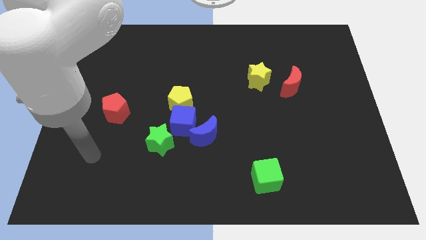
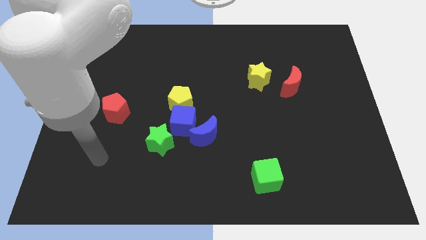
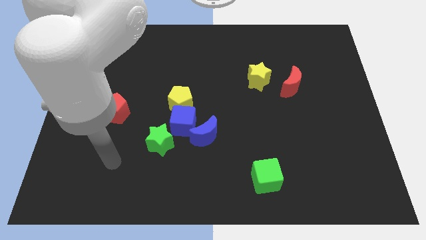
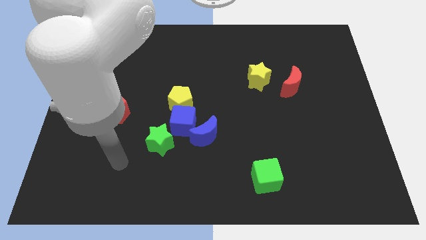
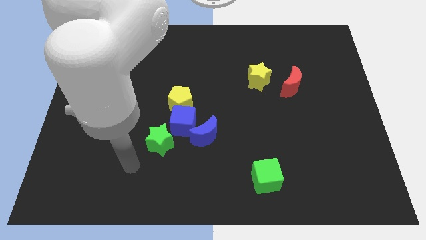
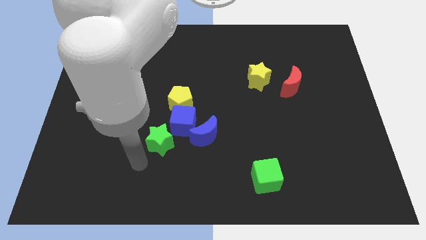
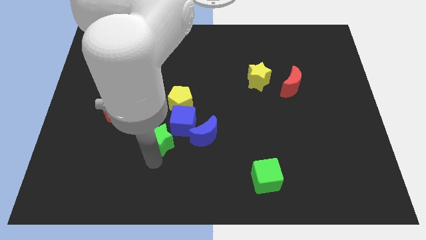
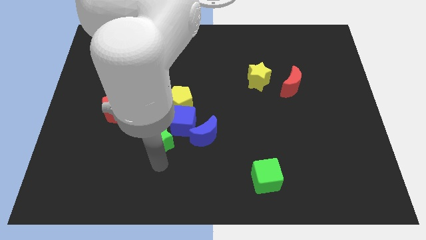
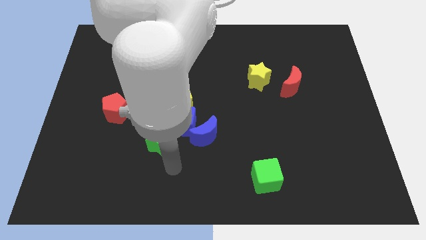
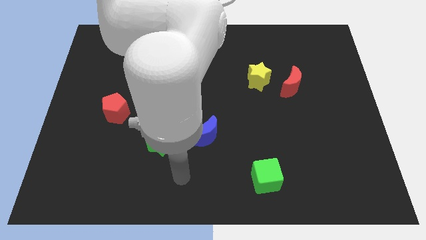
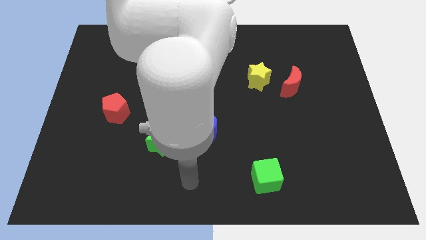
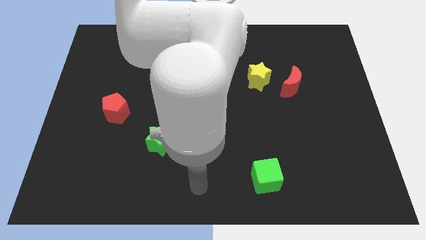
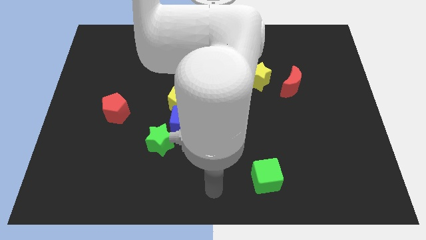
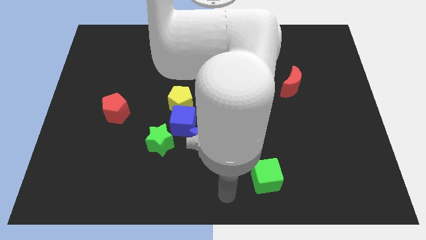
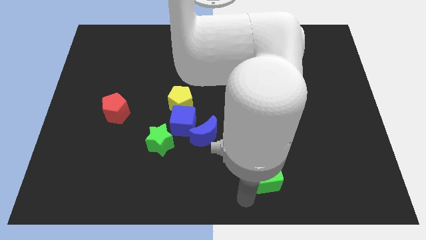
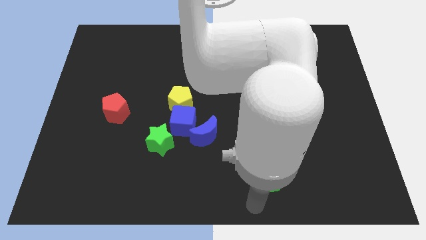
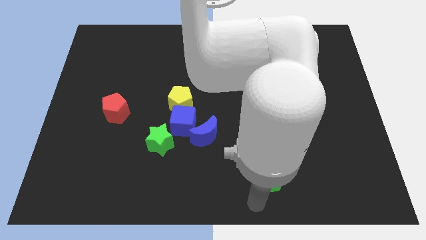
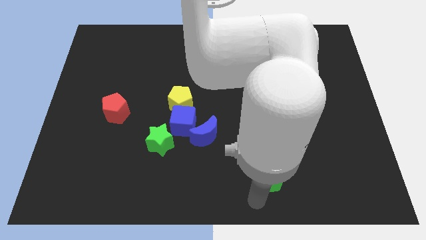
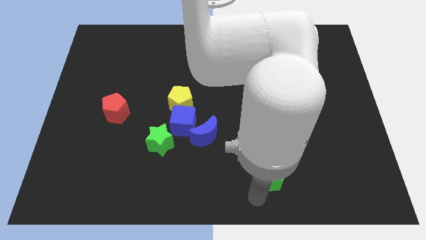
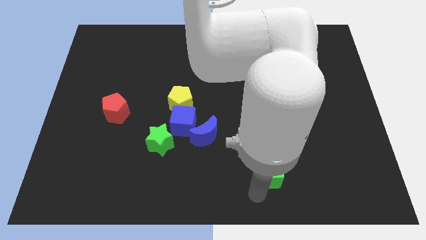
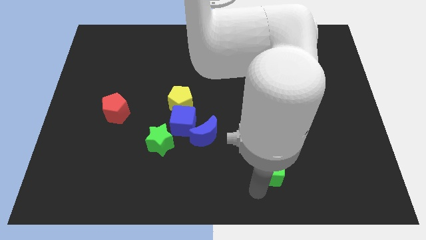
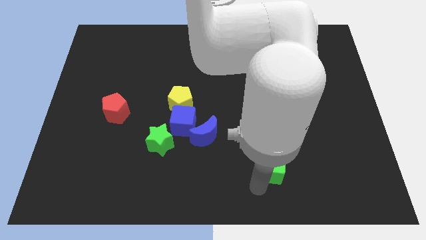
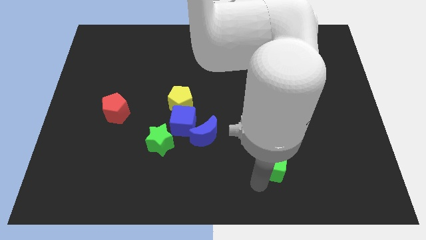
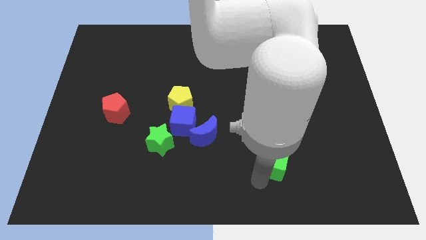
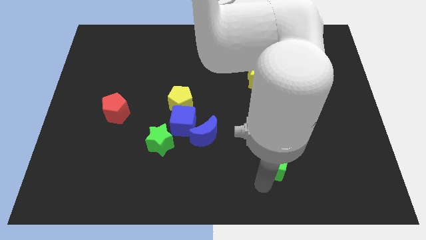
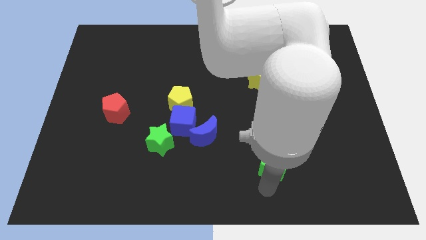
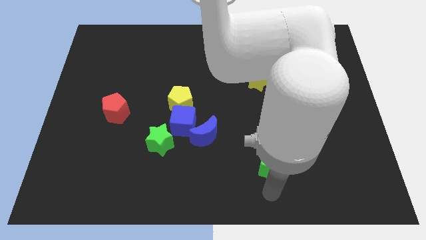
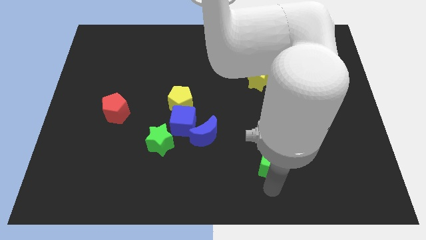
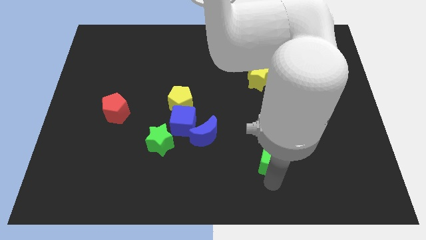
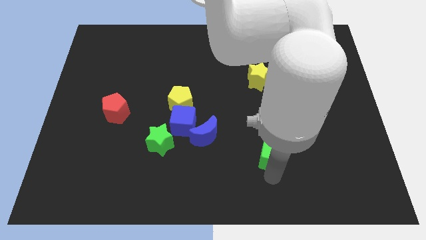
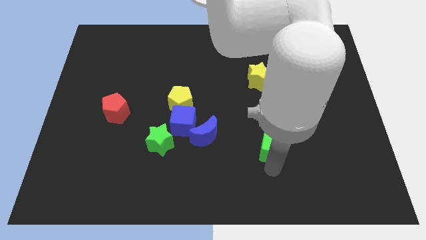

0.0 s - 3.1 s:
move the green cube a little up

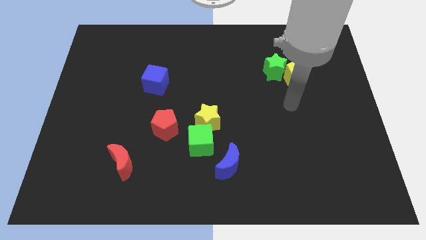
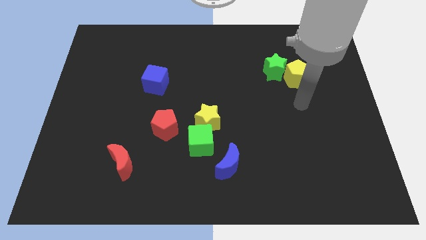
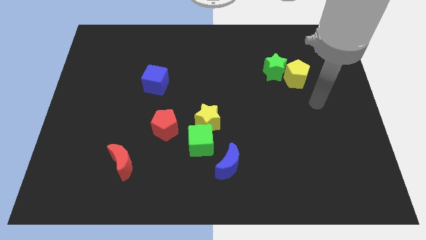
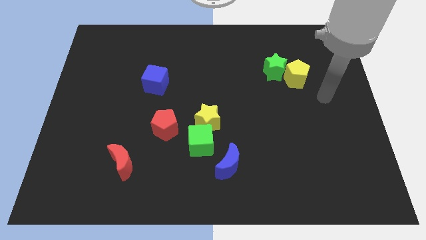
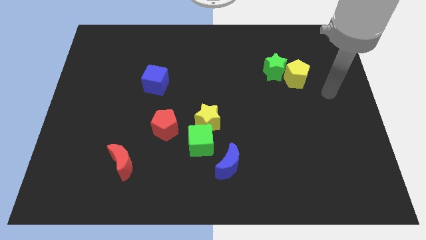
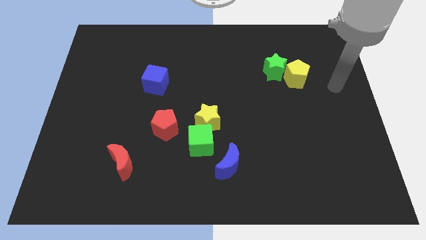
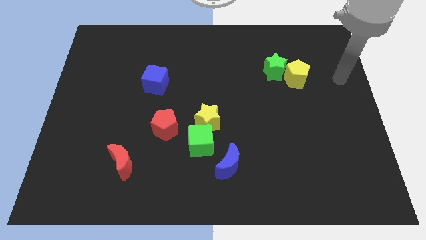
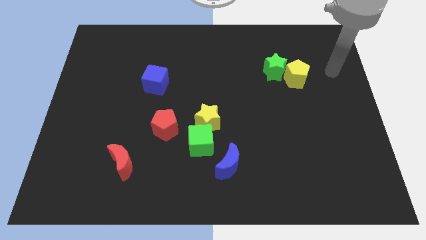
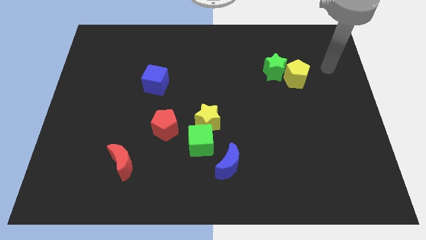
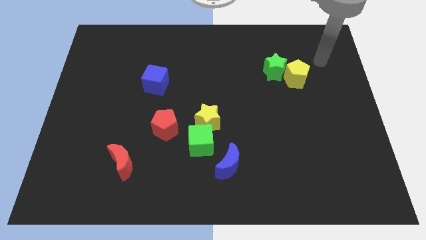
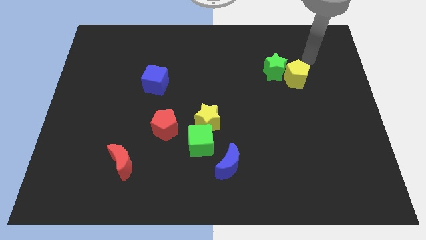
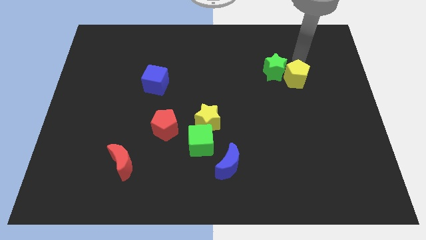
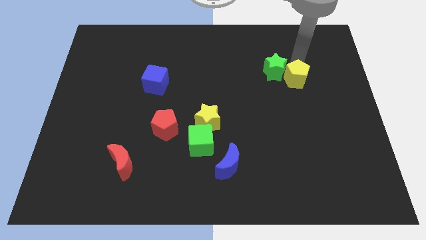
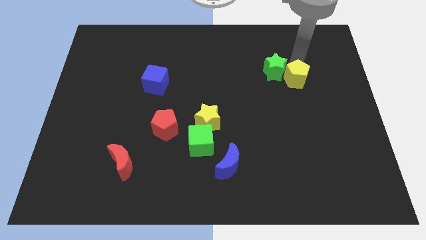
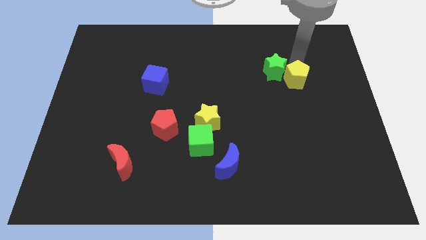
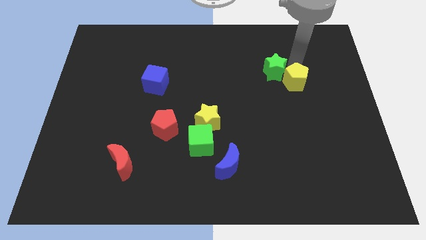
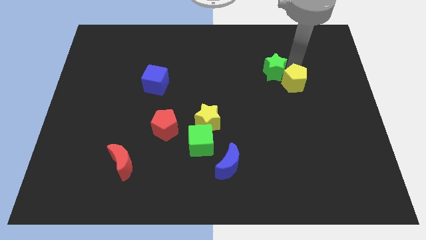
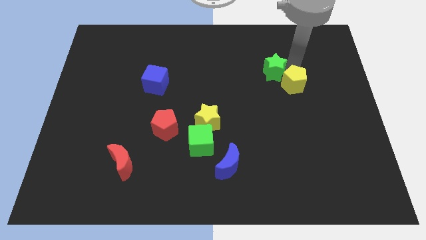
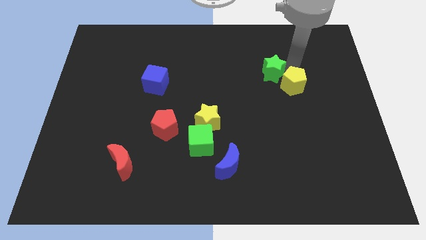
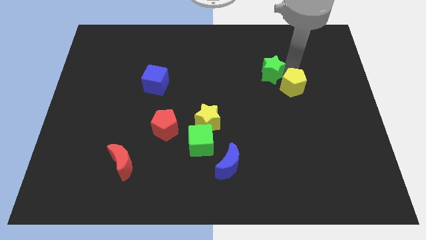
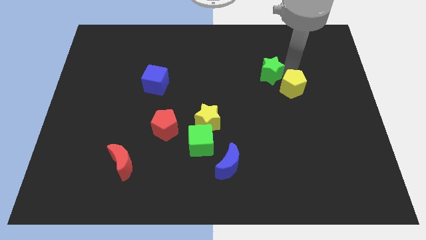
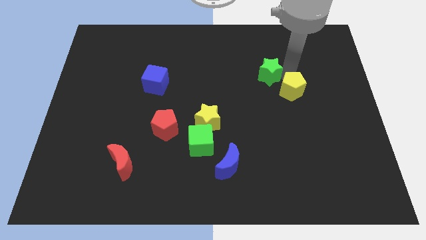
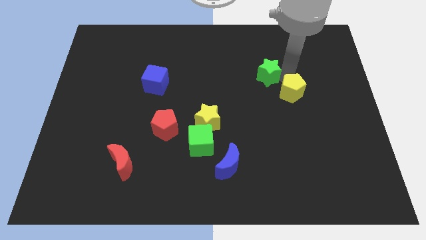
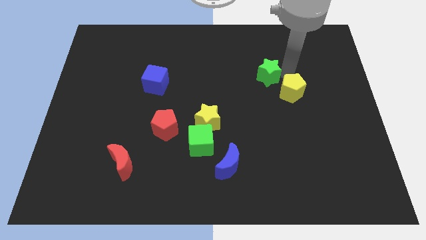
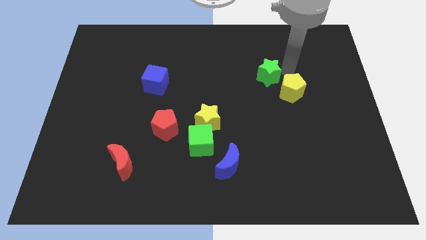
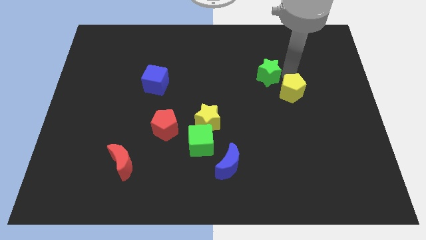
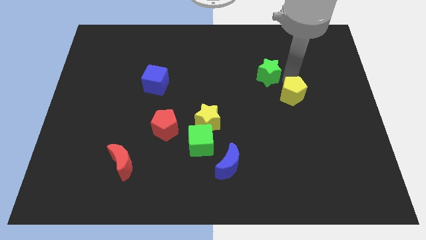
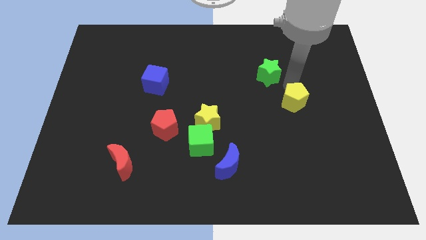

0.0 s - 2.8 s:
push the yellow pentagon downwards a bit

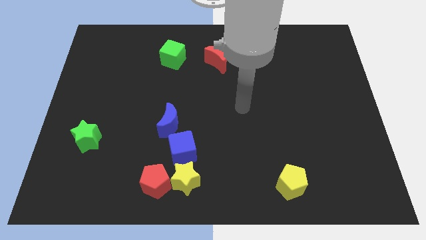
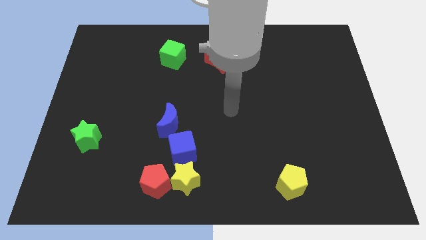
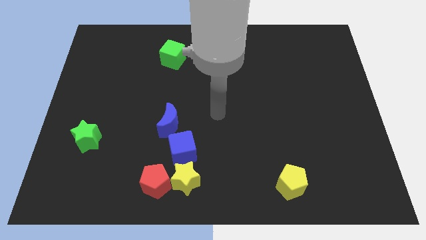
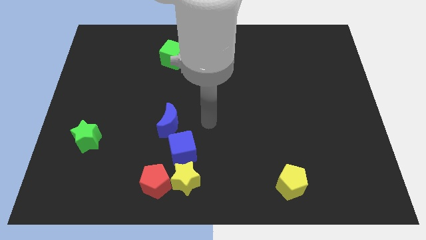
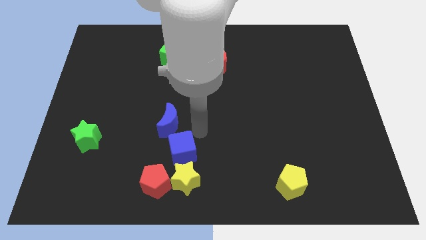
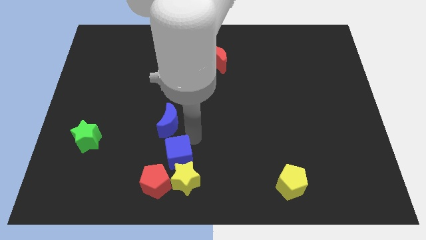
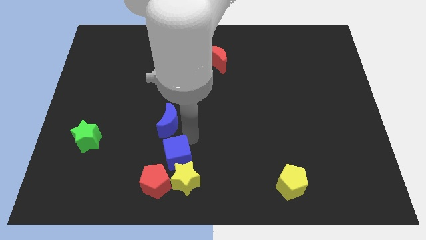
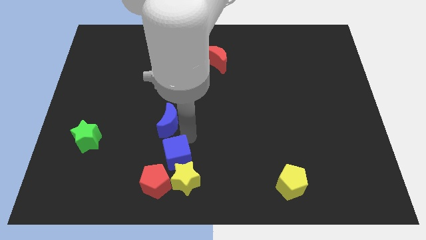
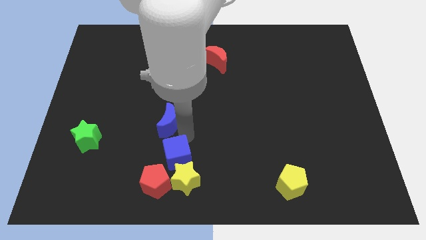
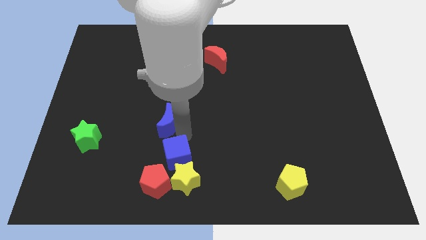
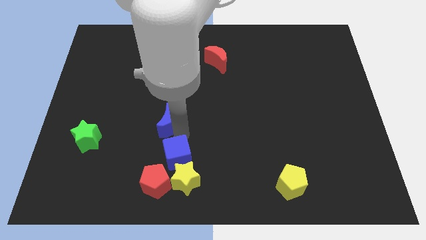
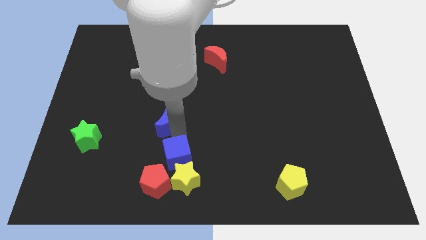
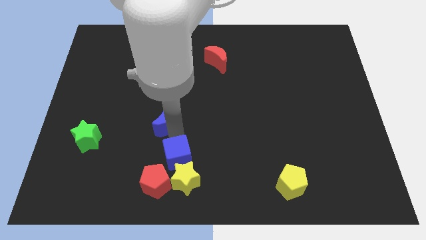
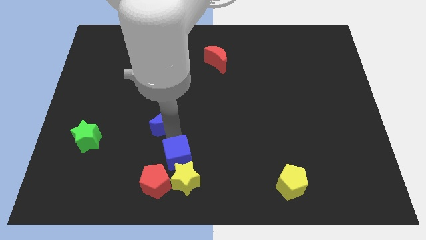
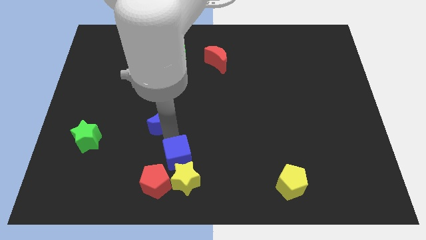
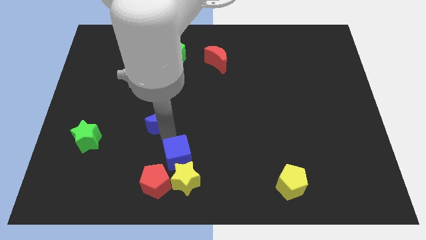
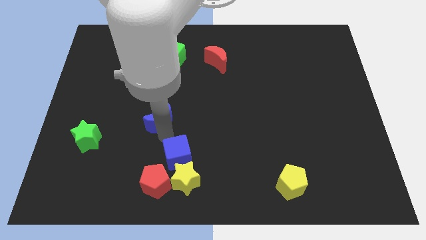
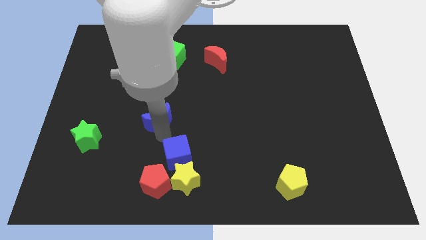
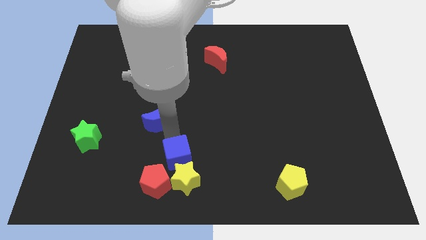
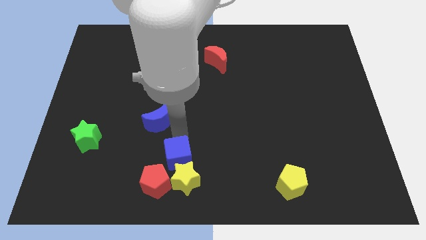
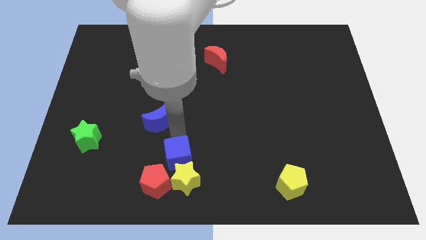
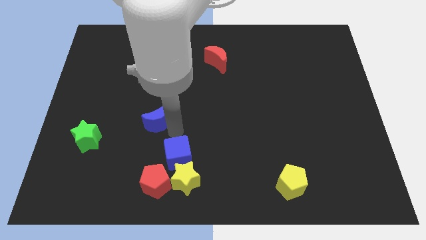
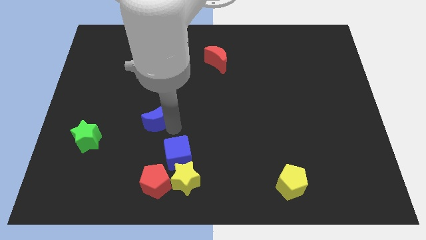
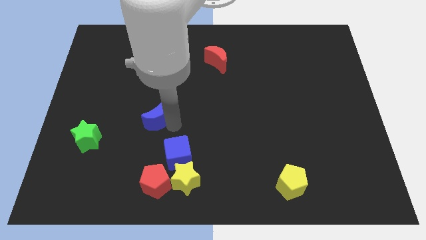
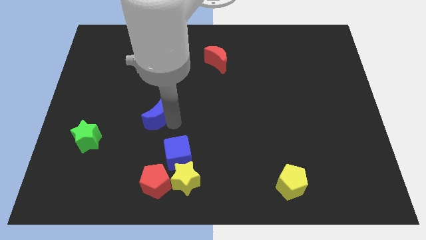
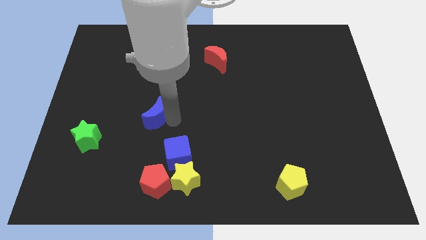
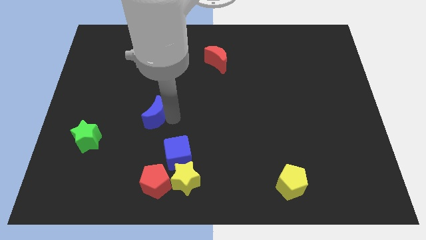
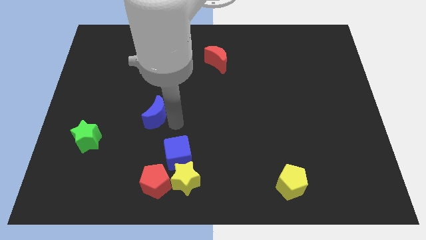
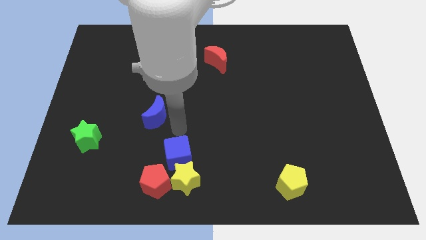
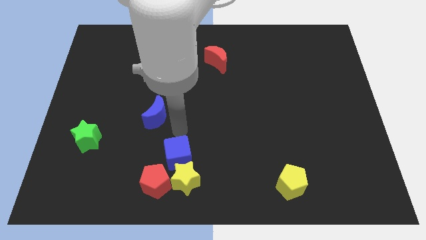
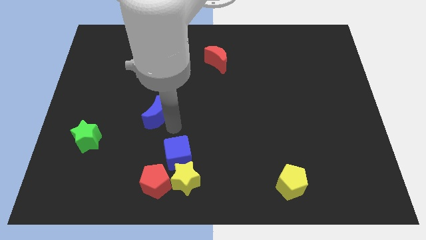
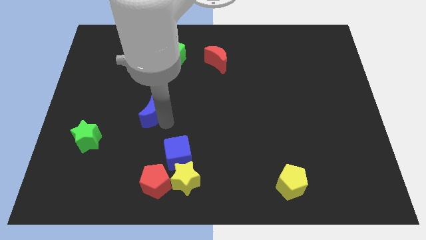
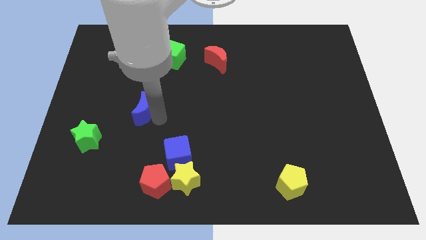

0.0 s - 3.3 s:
slightly slide the blue moon diagonally upwards and left
